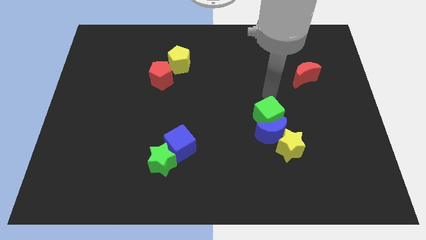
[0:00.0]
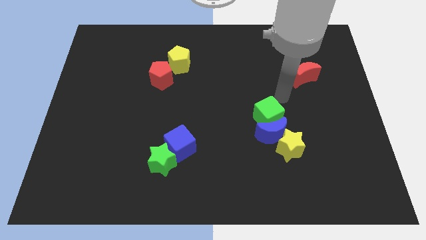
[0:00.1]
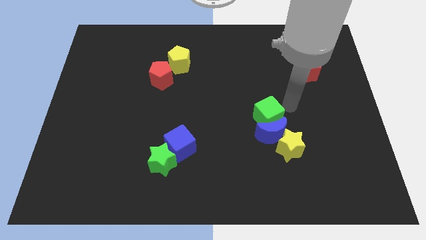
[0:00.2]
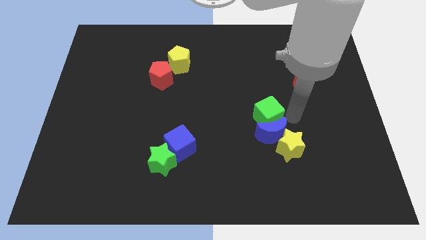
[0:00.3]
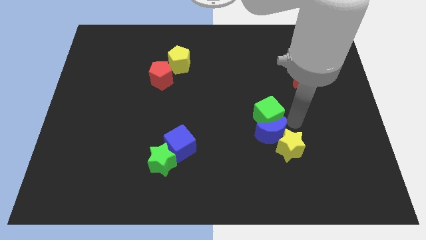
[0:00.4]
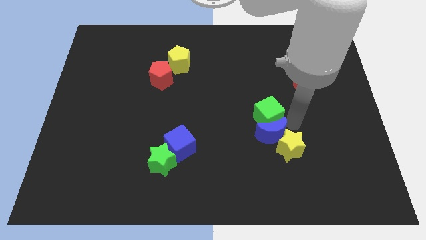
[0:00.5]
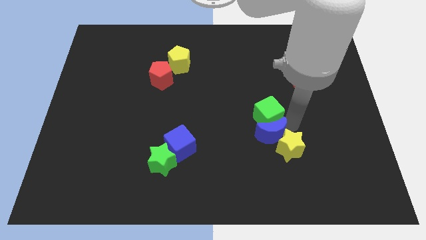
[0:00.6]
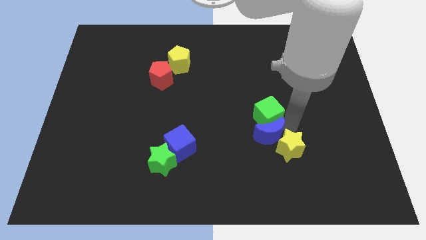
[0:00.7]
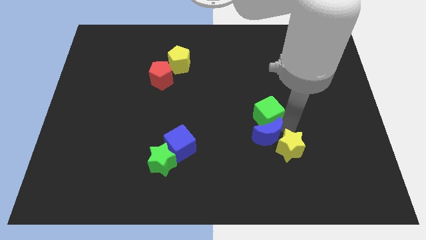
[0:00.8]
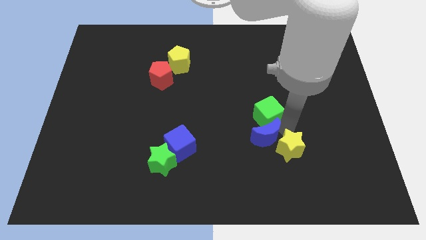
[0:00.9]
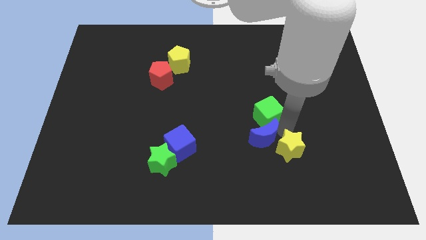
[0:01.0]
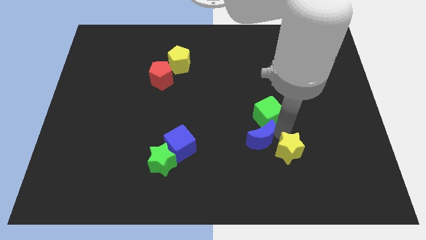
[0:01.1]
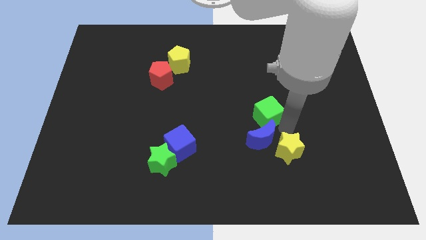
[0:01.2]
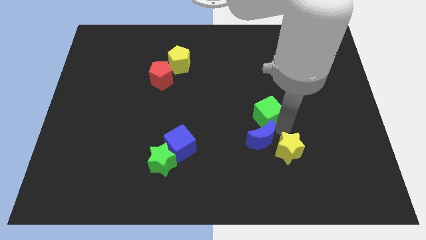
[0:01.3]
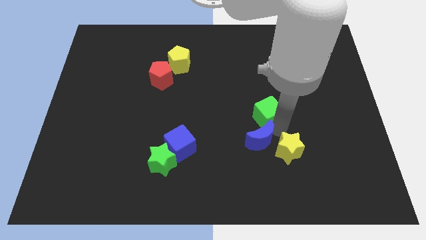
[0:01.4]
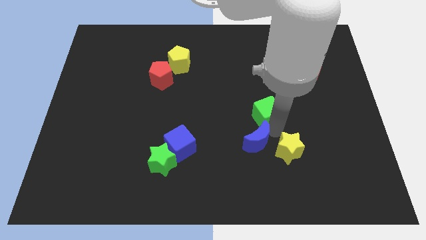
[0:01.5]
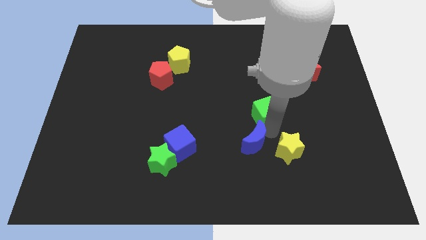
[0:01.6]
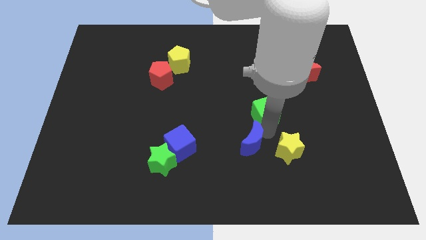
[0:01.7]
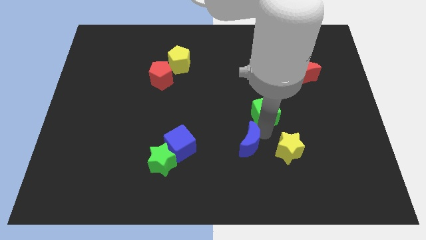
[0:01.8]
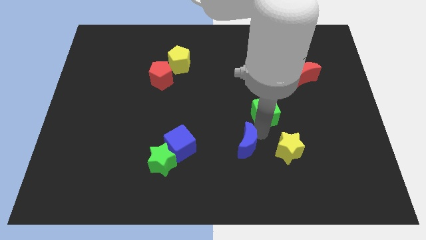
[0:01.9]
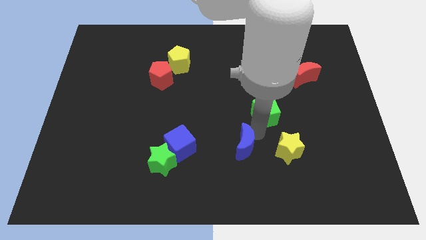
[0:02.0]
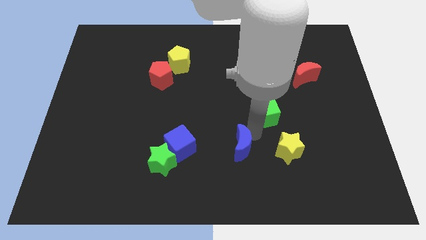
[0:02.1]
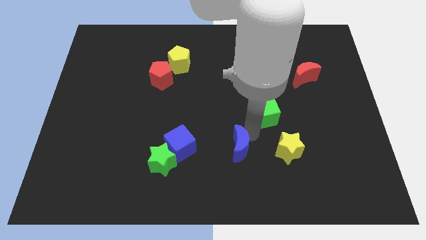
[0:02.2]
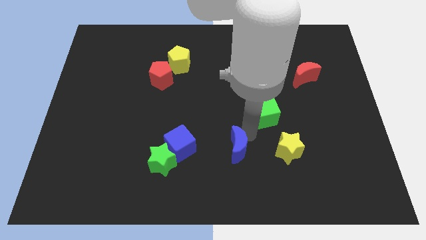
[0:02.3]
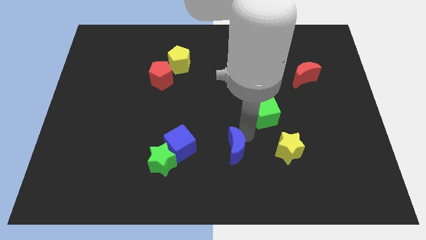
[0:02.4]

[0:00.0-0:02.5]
pull the blue moon apart from the yellow star and green cube

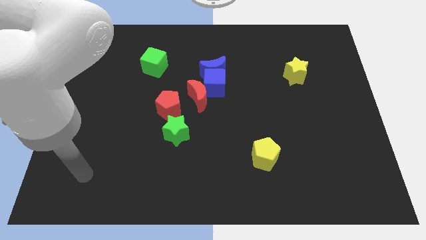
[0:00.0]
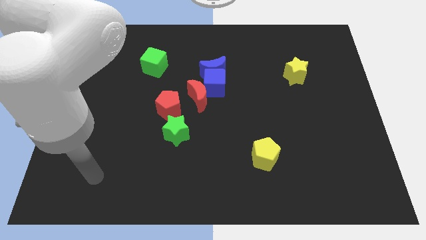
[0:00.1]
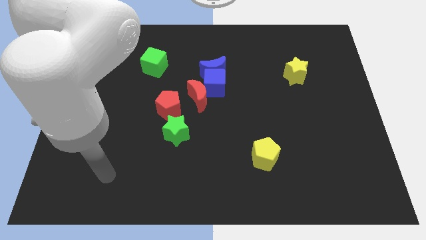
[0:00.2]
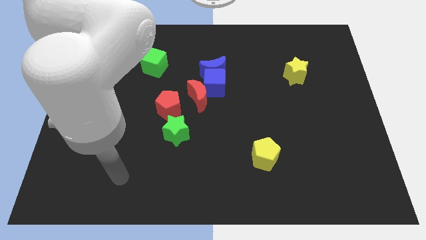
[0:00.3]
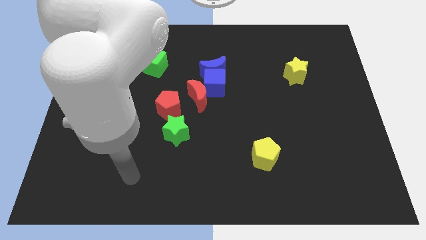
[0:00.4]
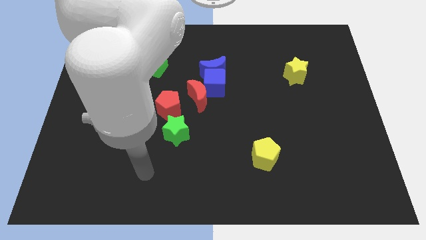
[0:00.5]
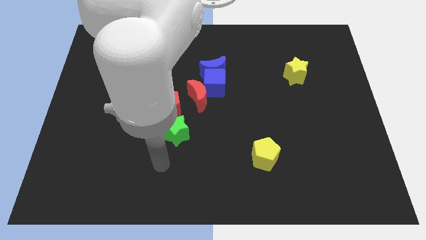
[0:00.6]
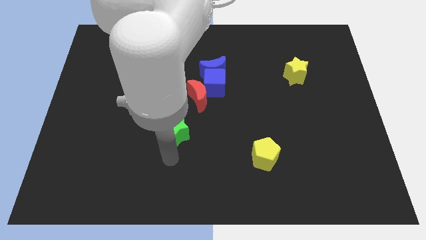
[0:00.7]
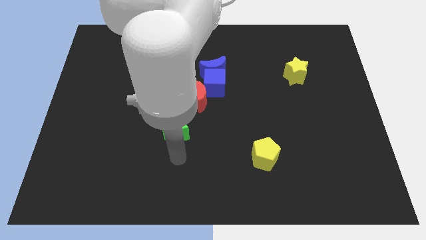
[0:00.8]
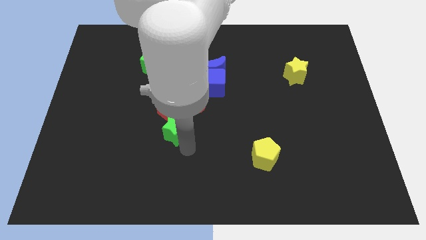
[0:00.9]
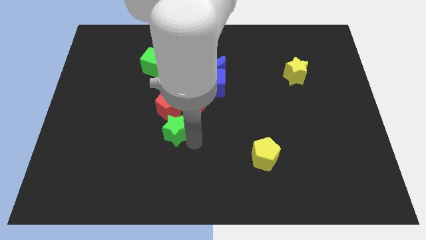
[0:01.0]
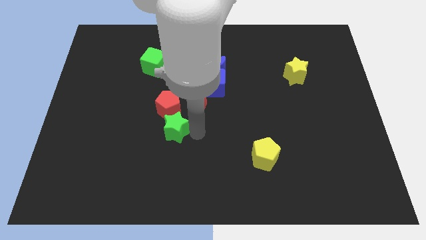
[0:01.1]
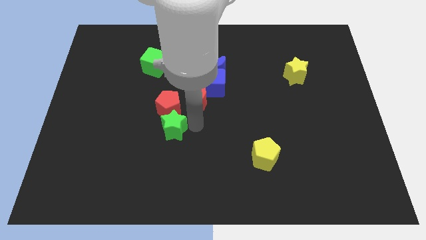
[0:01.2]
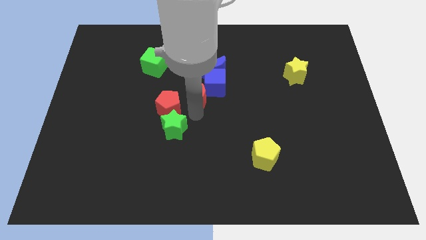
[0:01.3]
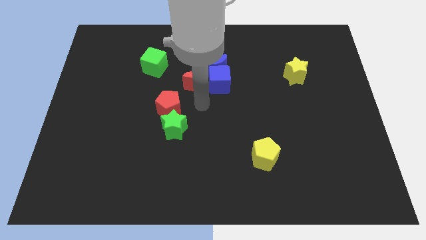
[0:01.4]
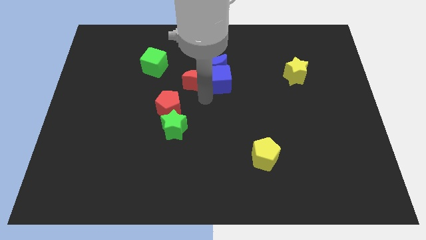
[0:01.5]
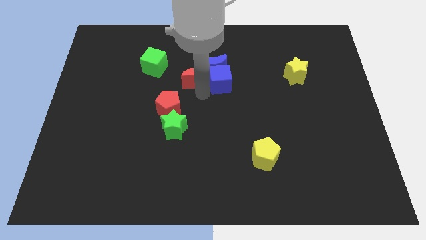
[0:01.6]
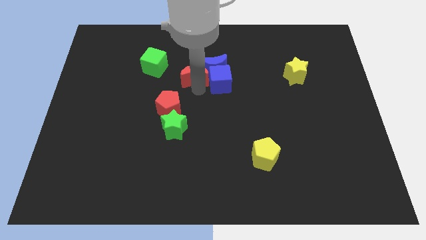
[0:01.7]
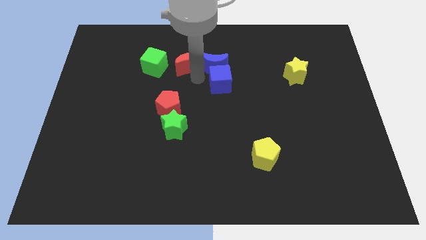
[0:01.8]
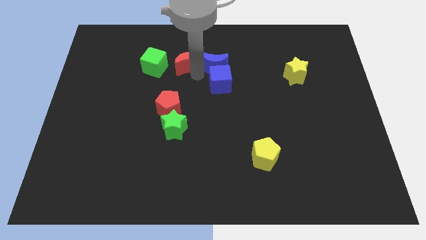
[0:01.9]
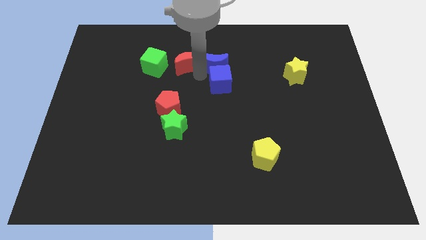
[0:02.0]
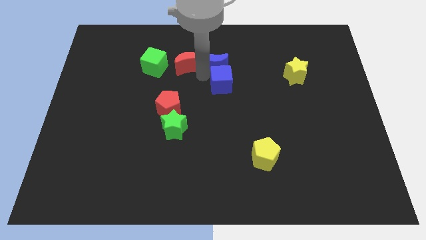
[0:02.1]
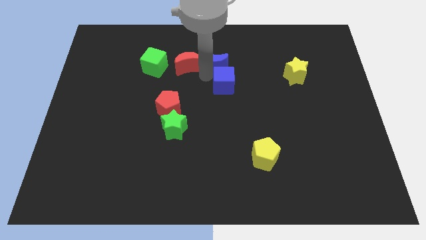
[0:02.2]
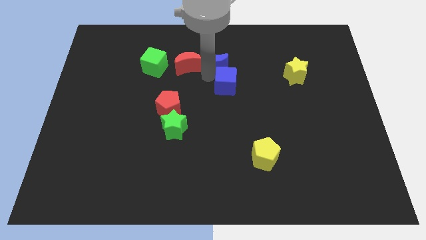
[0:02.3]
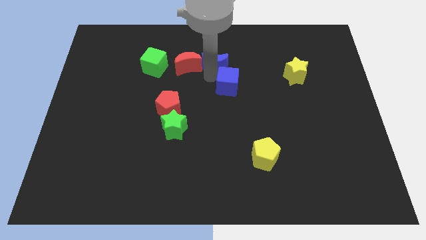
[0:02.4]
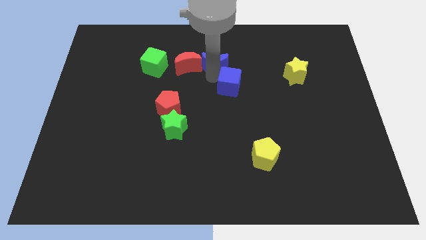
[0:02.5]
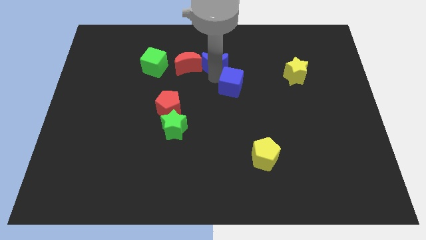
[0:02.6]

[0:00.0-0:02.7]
separate the blue cube from the blue moon and red moon

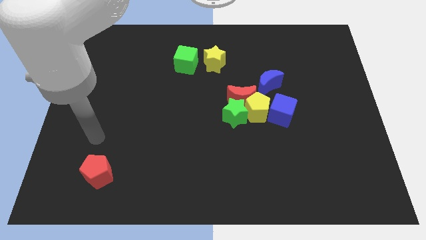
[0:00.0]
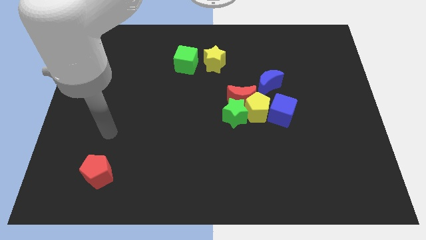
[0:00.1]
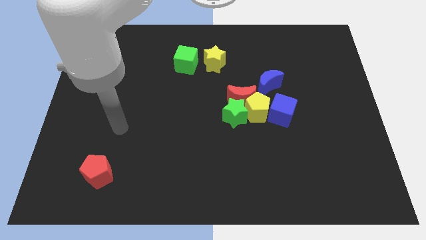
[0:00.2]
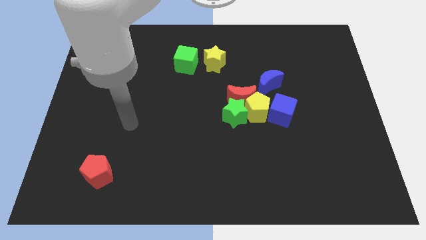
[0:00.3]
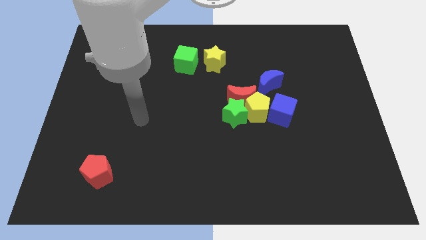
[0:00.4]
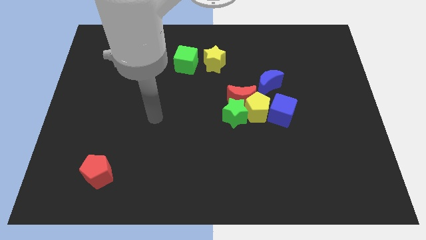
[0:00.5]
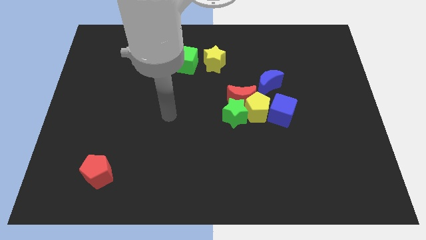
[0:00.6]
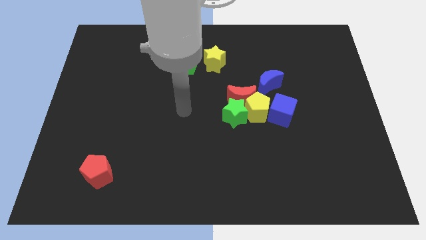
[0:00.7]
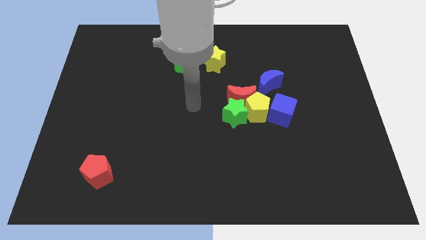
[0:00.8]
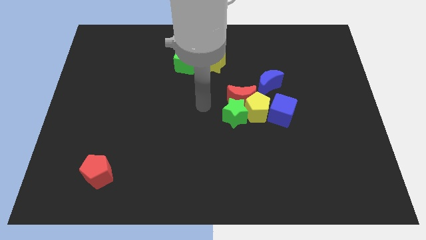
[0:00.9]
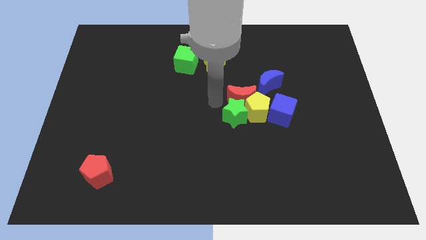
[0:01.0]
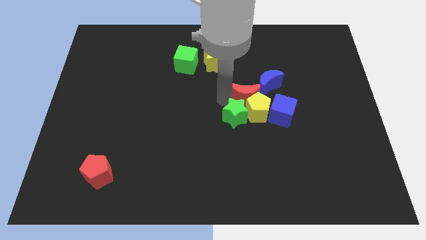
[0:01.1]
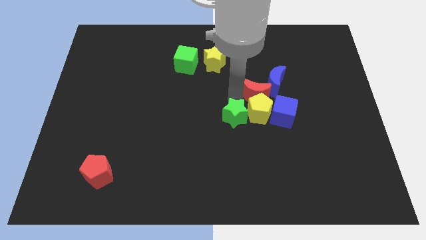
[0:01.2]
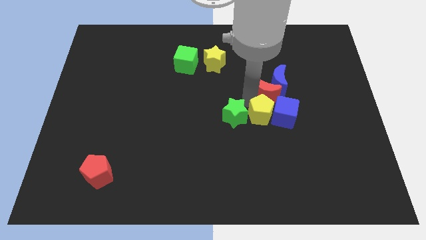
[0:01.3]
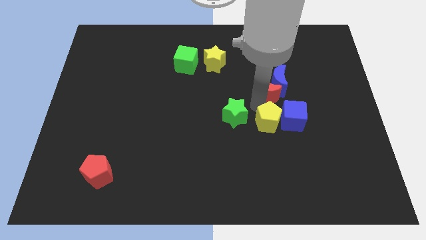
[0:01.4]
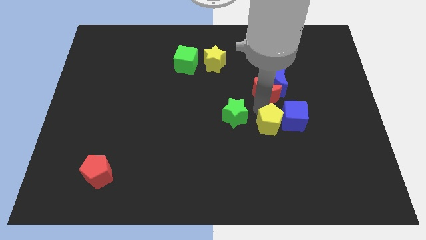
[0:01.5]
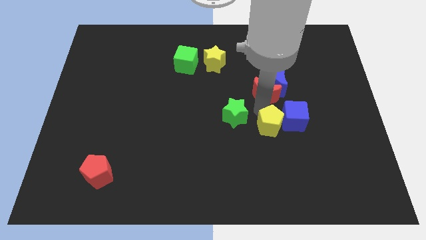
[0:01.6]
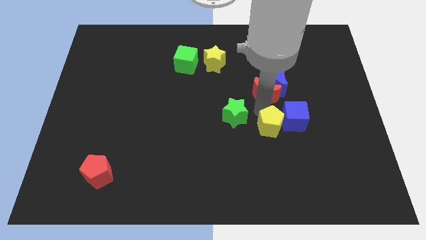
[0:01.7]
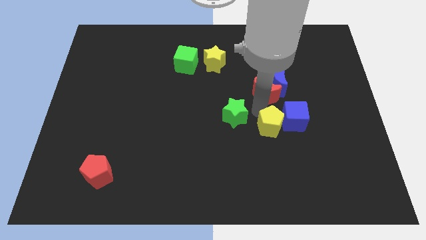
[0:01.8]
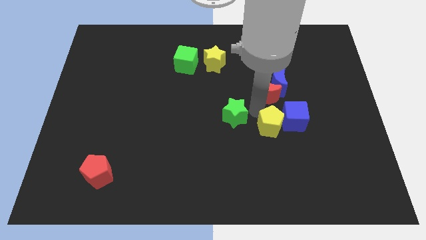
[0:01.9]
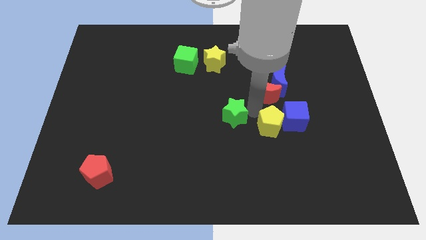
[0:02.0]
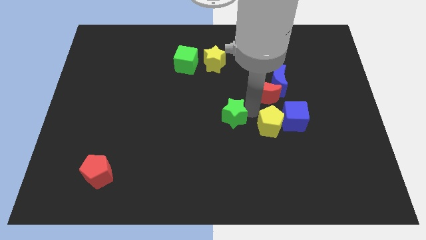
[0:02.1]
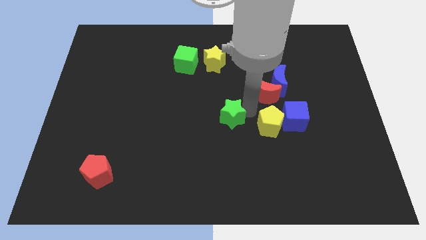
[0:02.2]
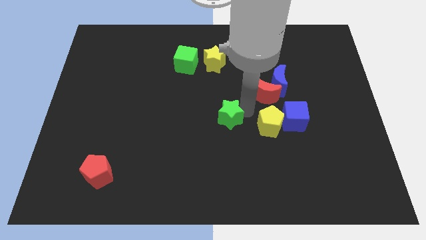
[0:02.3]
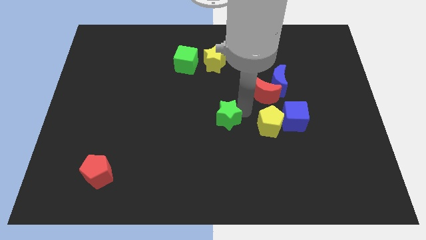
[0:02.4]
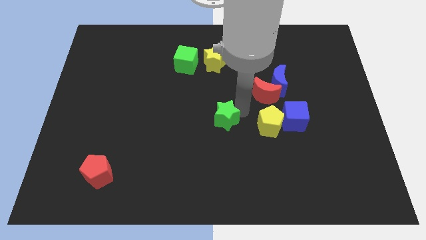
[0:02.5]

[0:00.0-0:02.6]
move the green star away from the red moon and yellow pentagon

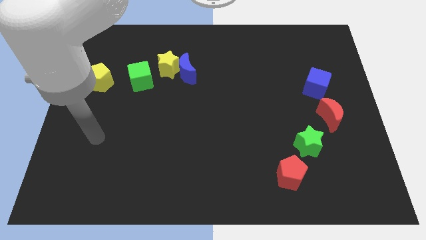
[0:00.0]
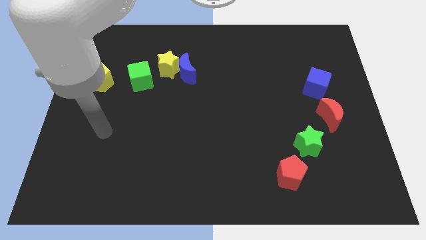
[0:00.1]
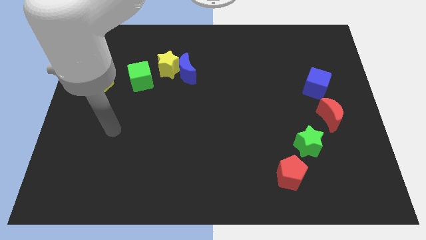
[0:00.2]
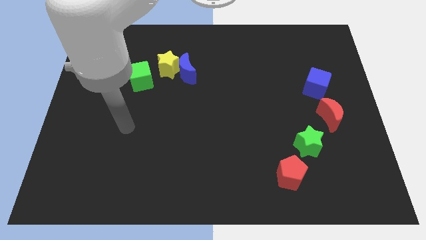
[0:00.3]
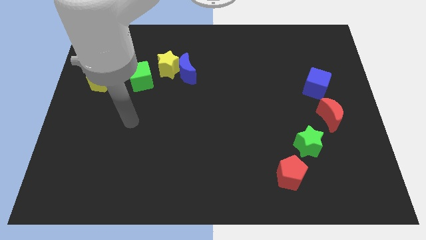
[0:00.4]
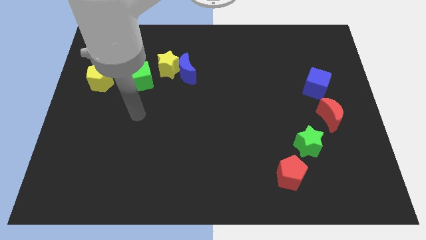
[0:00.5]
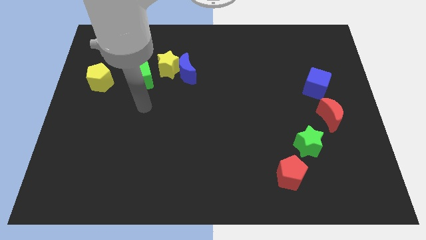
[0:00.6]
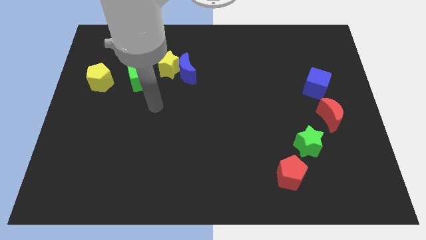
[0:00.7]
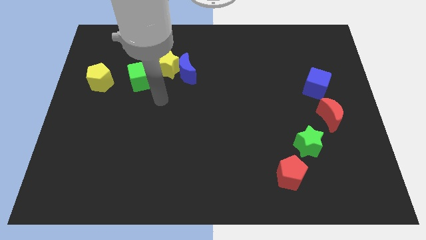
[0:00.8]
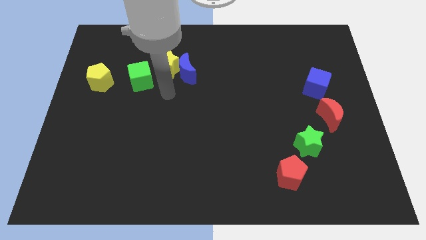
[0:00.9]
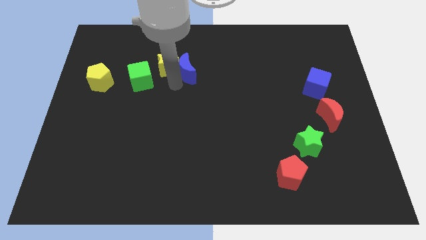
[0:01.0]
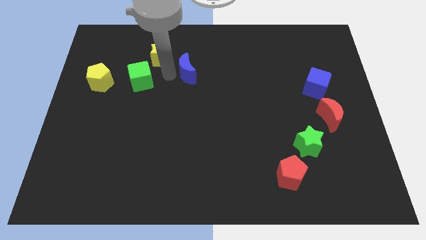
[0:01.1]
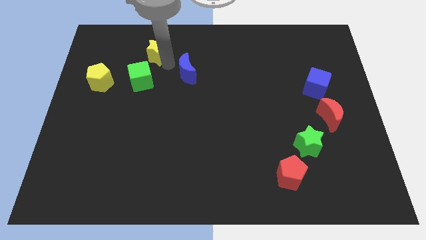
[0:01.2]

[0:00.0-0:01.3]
separate the blue moon from the yellow star

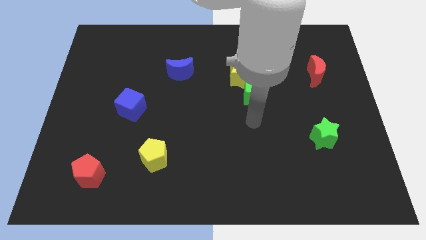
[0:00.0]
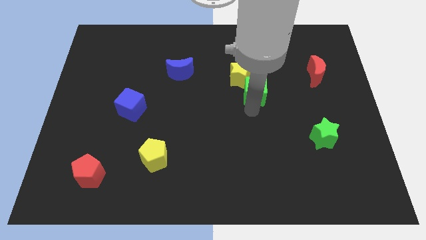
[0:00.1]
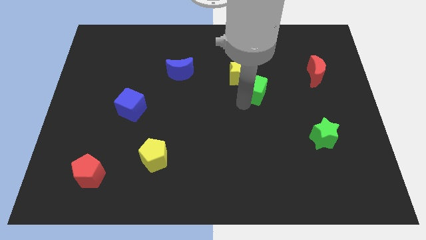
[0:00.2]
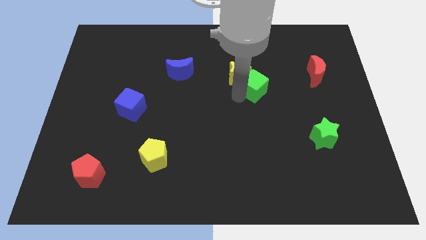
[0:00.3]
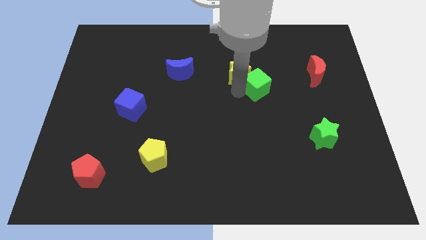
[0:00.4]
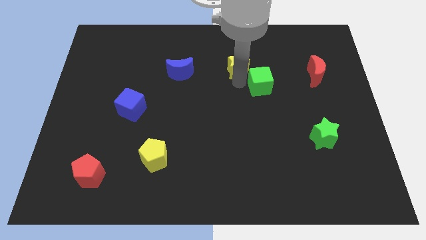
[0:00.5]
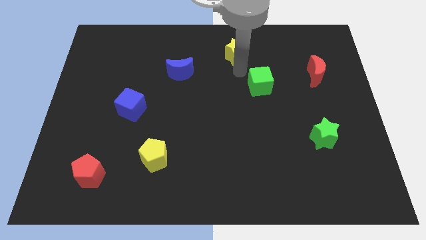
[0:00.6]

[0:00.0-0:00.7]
separate the green cube from the yellow star
